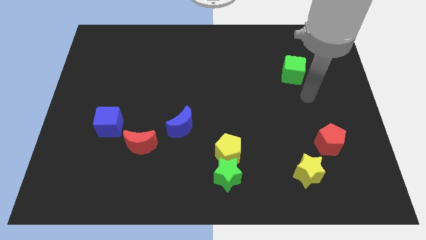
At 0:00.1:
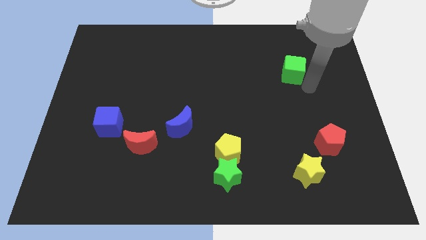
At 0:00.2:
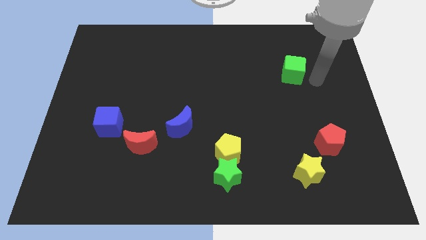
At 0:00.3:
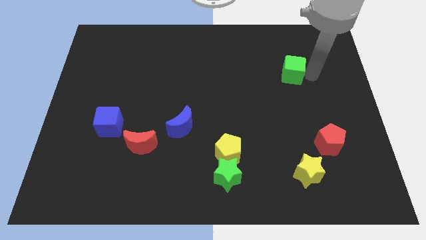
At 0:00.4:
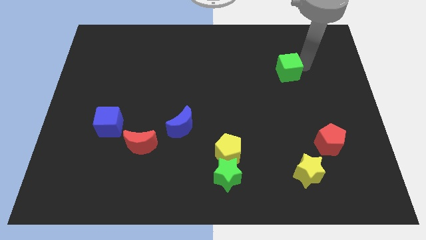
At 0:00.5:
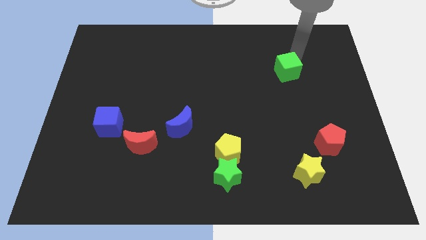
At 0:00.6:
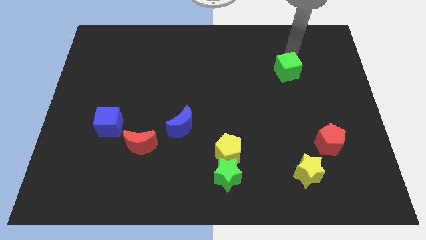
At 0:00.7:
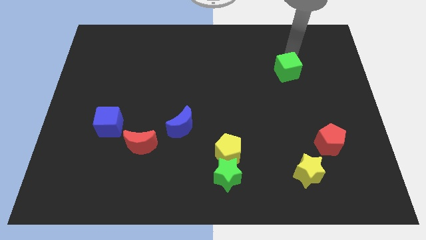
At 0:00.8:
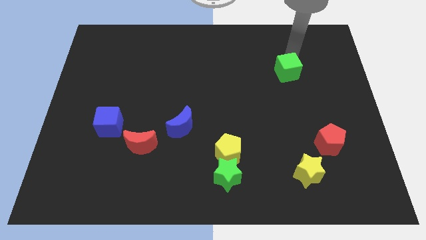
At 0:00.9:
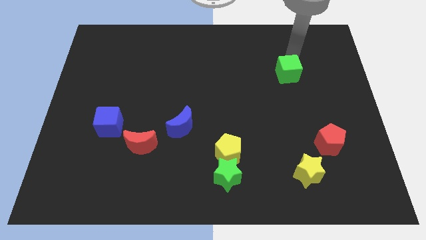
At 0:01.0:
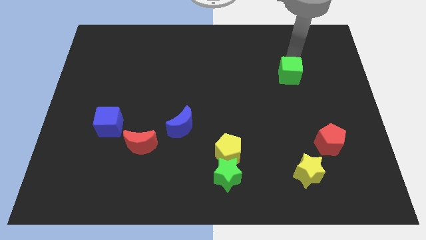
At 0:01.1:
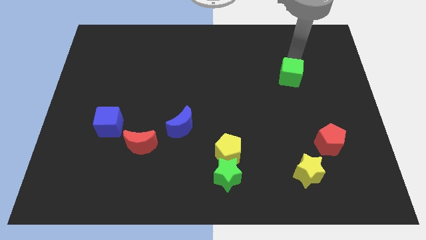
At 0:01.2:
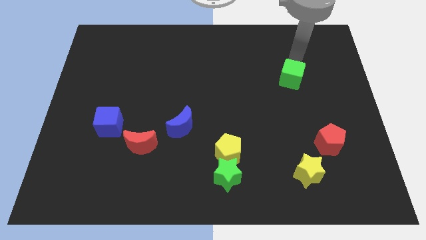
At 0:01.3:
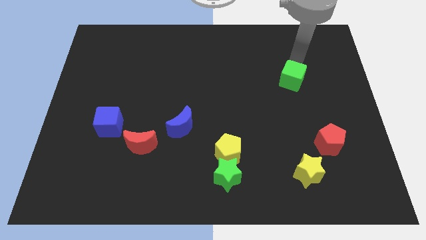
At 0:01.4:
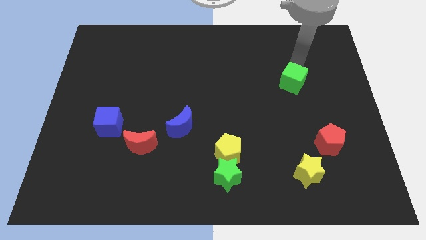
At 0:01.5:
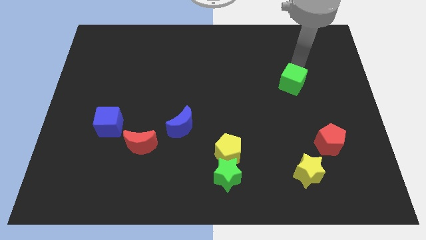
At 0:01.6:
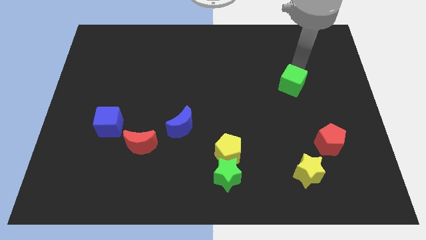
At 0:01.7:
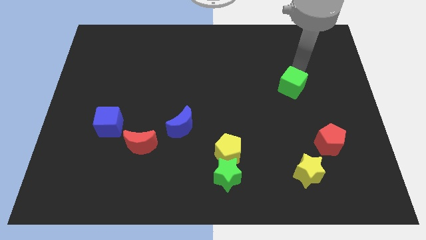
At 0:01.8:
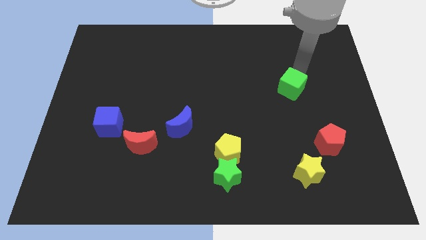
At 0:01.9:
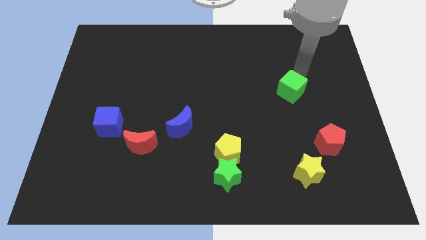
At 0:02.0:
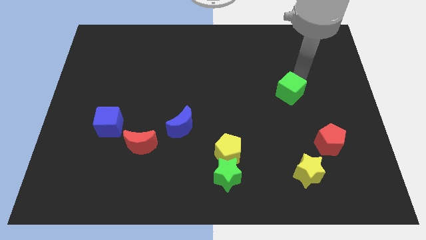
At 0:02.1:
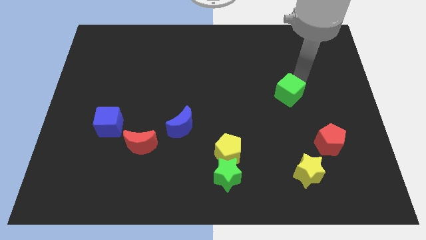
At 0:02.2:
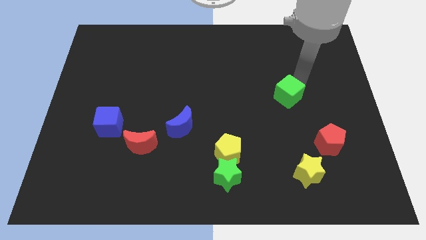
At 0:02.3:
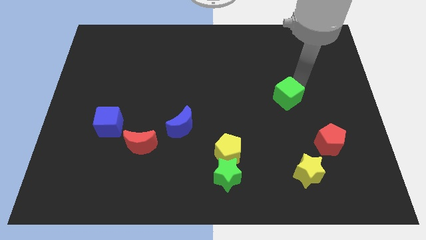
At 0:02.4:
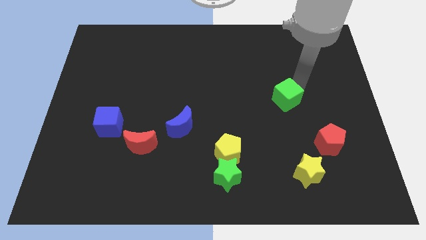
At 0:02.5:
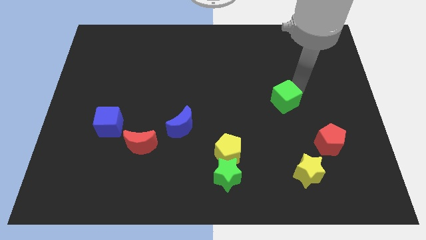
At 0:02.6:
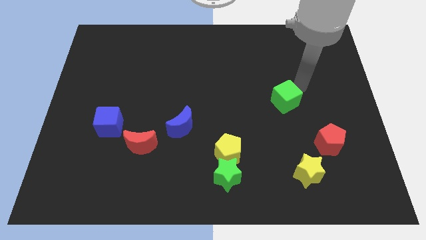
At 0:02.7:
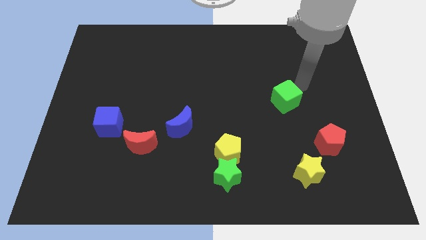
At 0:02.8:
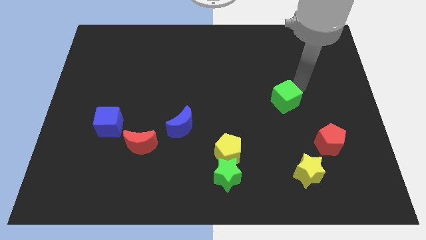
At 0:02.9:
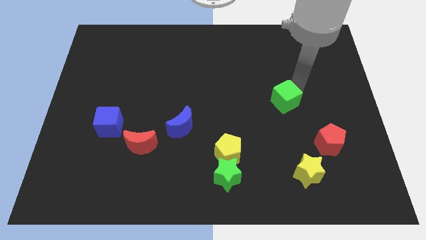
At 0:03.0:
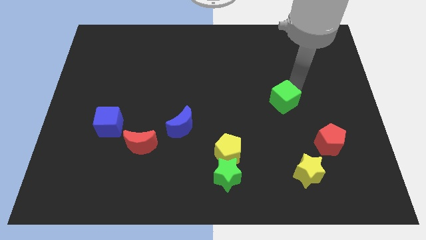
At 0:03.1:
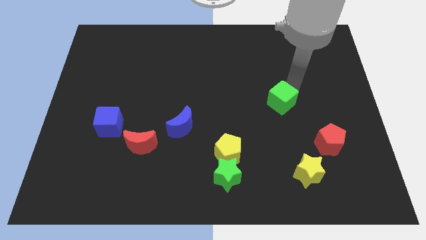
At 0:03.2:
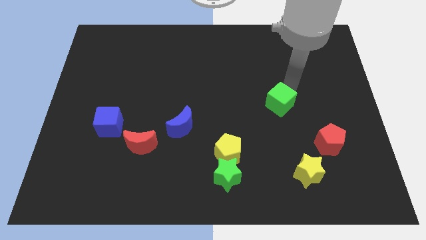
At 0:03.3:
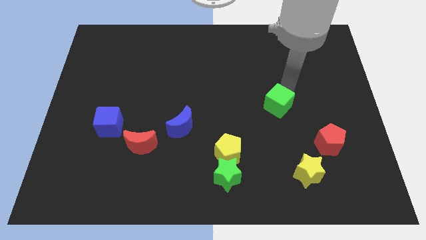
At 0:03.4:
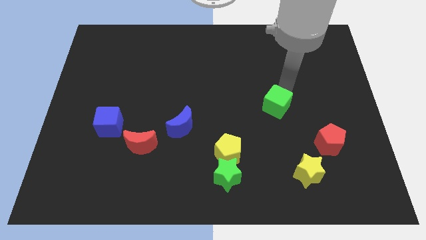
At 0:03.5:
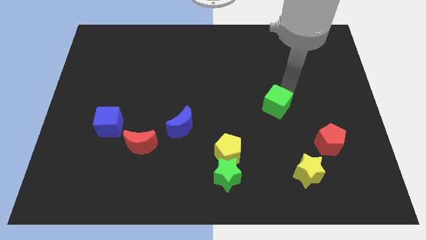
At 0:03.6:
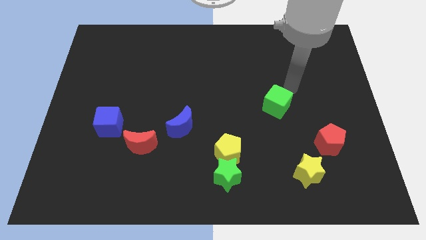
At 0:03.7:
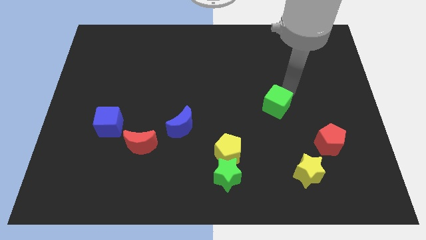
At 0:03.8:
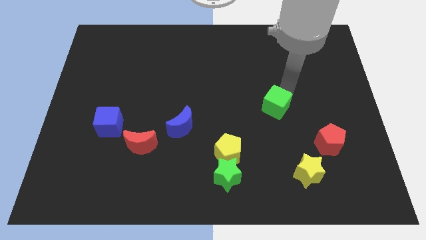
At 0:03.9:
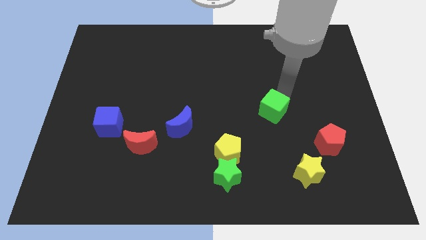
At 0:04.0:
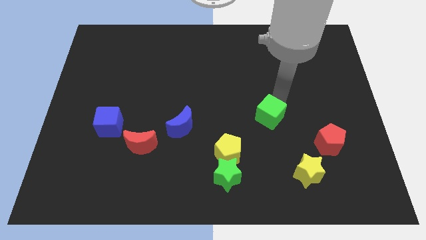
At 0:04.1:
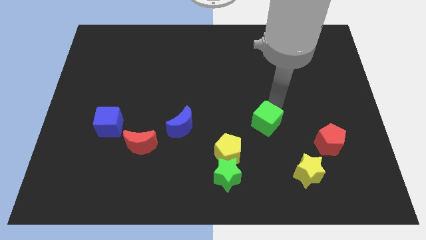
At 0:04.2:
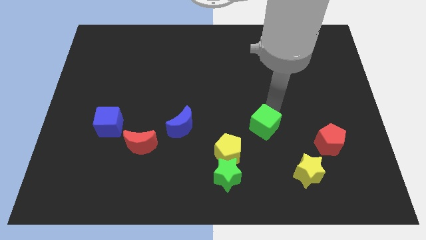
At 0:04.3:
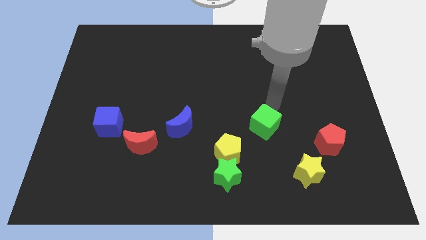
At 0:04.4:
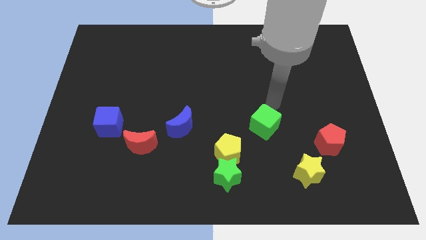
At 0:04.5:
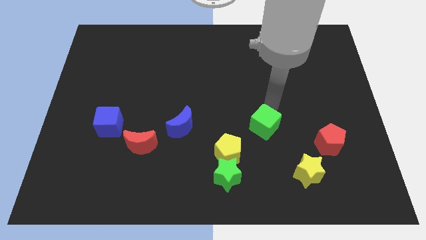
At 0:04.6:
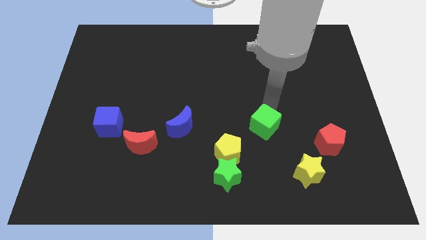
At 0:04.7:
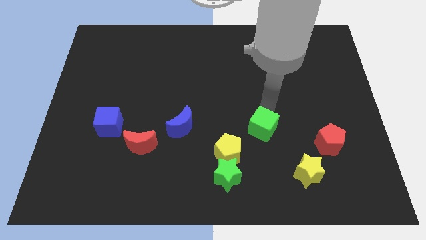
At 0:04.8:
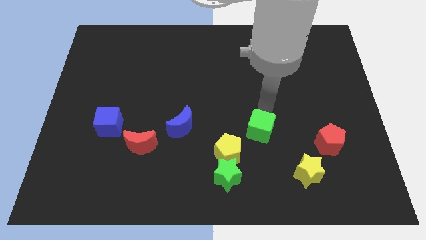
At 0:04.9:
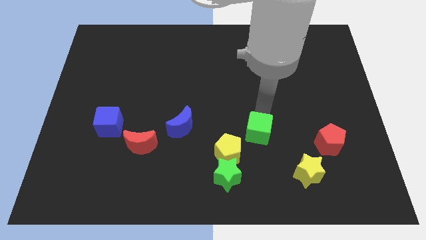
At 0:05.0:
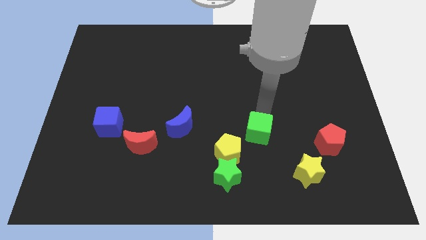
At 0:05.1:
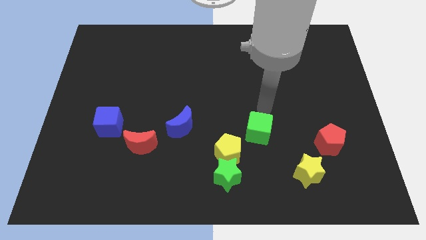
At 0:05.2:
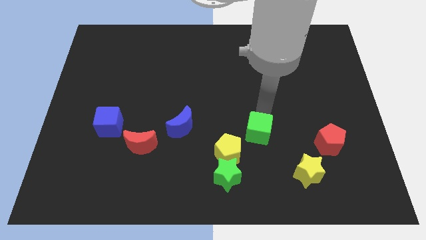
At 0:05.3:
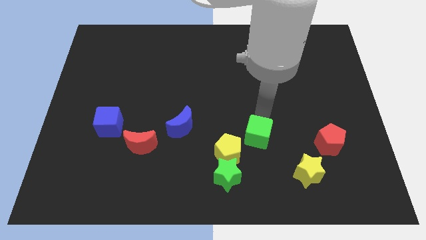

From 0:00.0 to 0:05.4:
move the green cube to the top right of the green star

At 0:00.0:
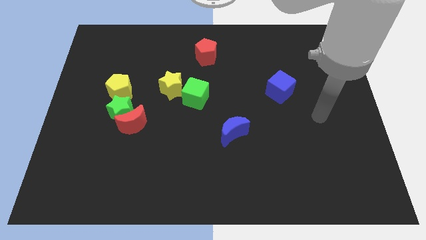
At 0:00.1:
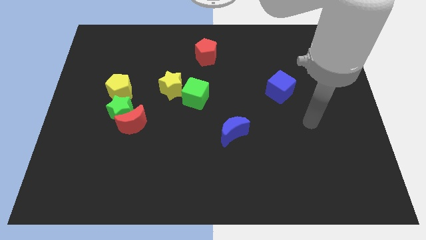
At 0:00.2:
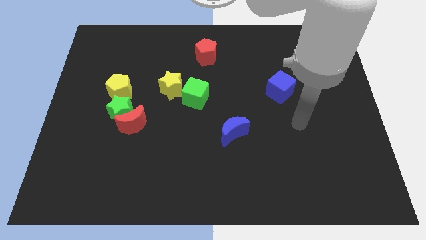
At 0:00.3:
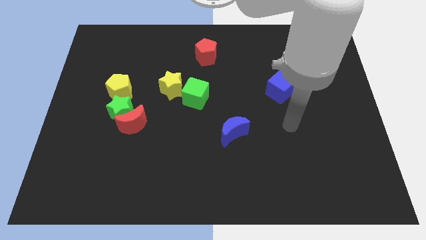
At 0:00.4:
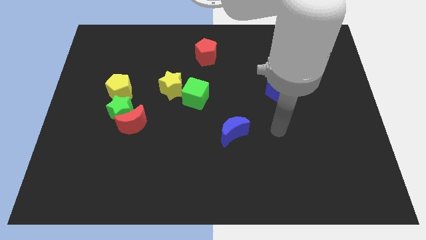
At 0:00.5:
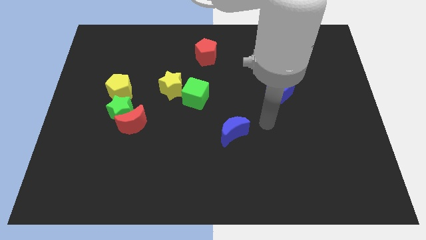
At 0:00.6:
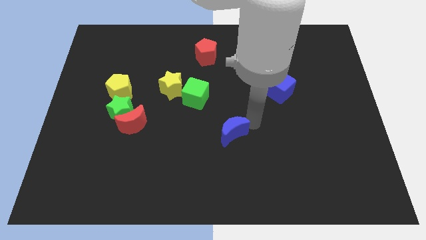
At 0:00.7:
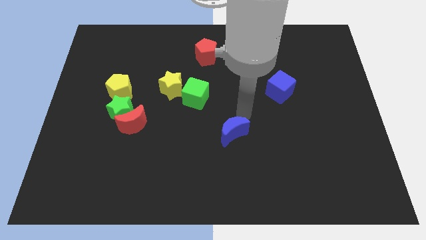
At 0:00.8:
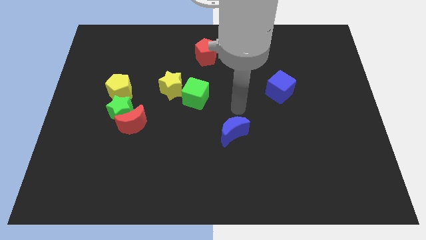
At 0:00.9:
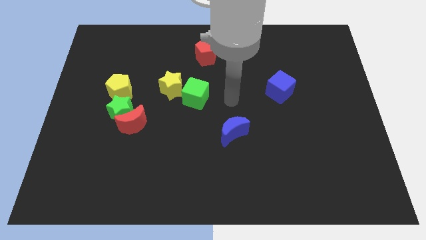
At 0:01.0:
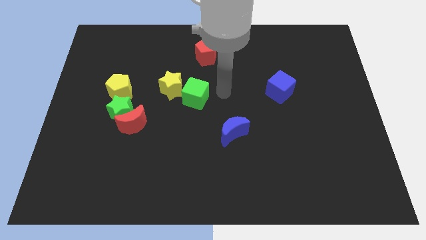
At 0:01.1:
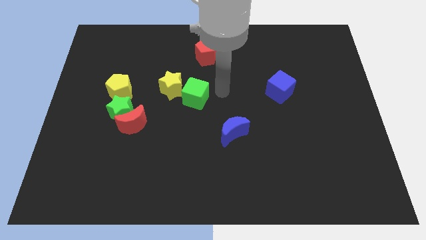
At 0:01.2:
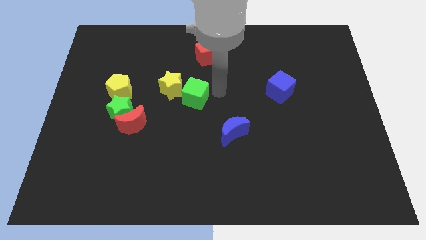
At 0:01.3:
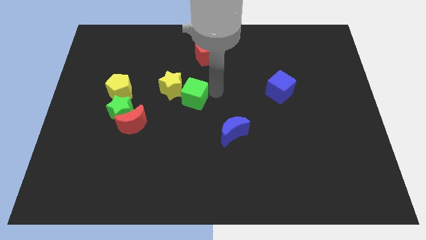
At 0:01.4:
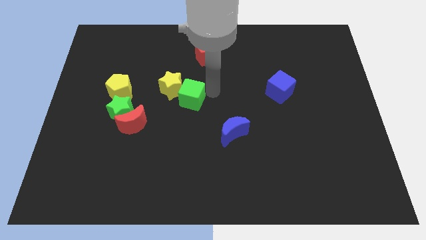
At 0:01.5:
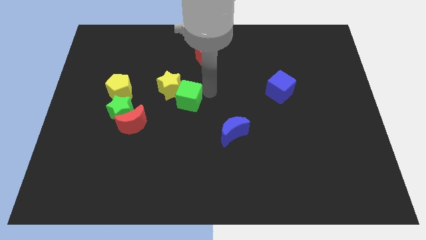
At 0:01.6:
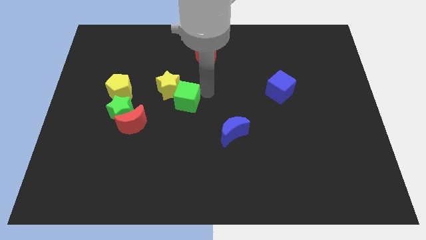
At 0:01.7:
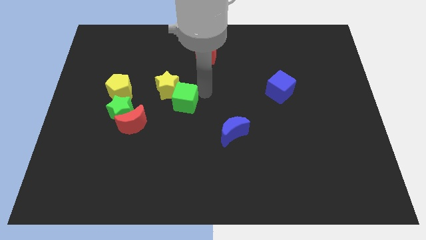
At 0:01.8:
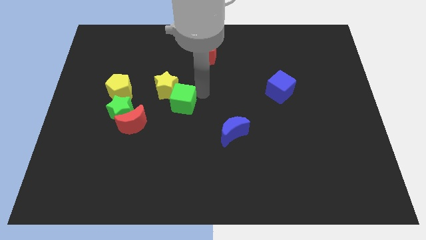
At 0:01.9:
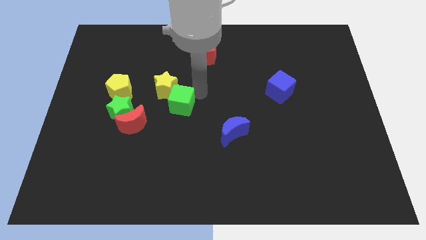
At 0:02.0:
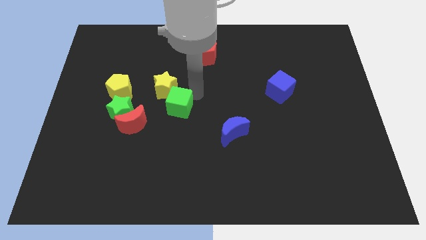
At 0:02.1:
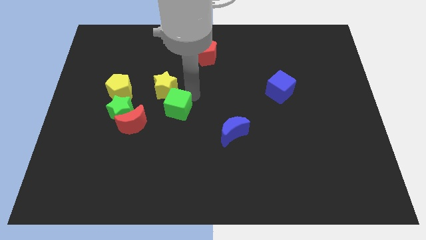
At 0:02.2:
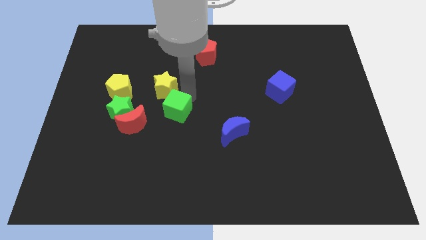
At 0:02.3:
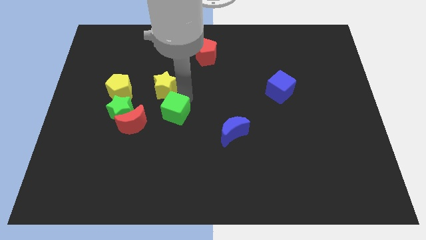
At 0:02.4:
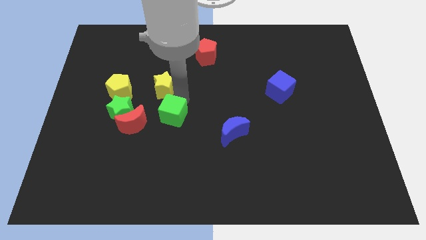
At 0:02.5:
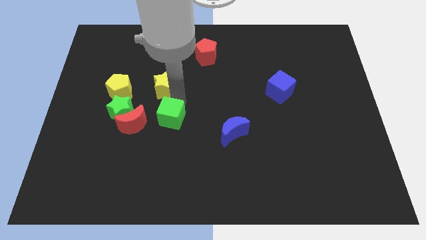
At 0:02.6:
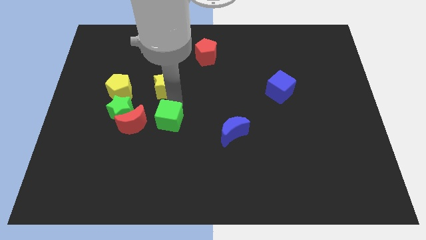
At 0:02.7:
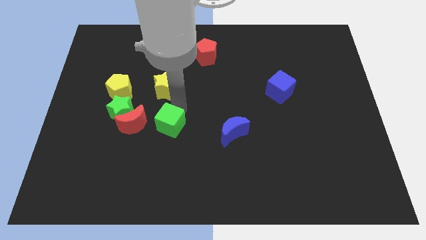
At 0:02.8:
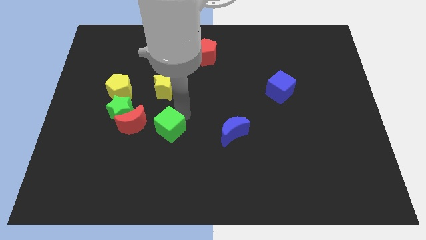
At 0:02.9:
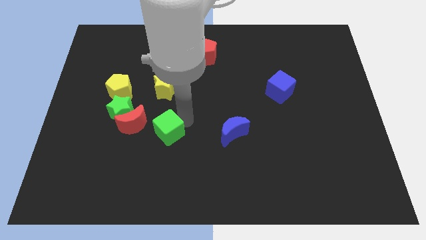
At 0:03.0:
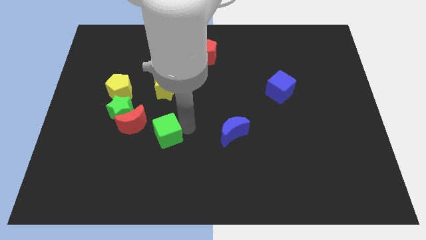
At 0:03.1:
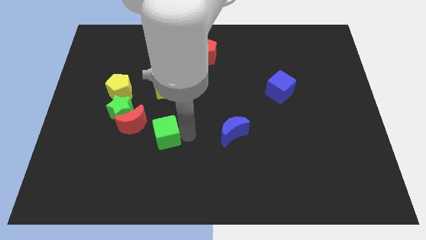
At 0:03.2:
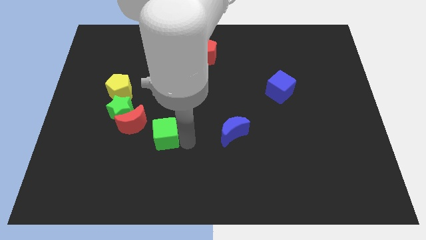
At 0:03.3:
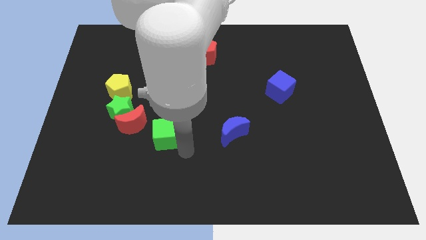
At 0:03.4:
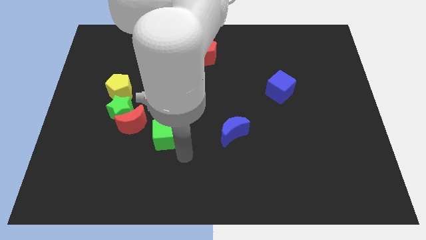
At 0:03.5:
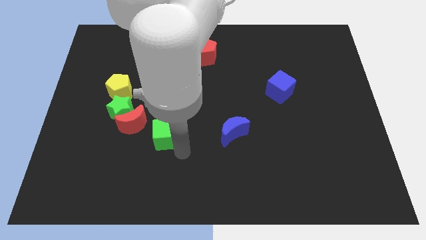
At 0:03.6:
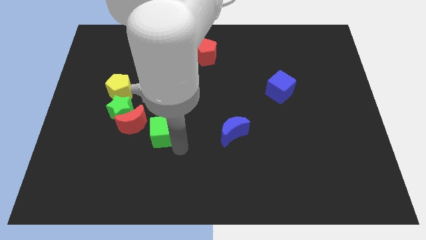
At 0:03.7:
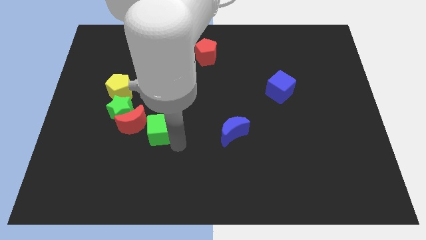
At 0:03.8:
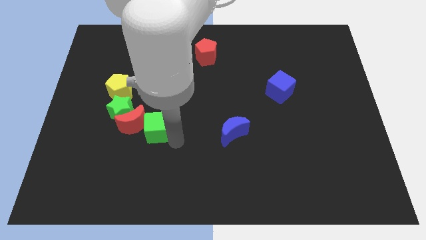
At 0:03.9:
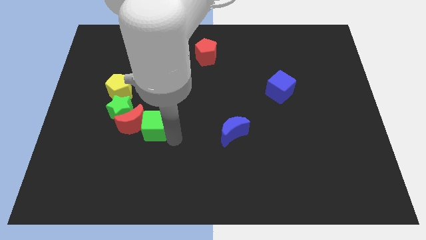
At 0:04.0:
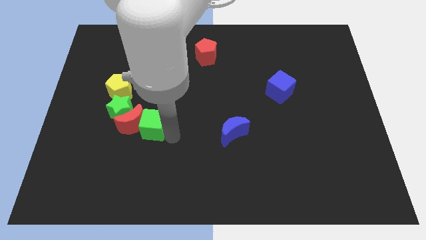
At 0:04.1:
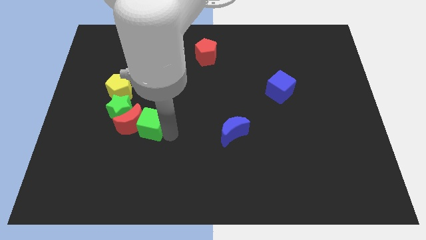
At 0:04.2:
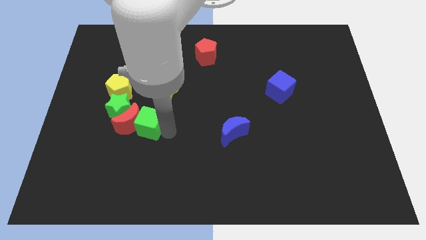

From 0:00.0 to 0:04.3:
push the green cube to the bottom right side of the yellow pentagon
